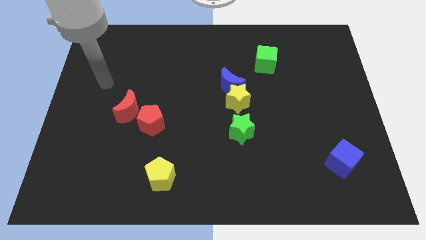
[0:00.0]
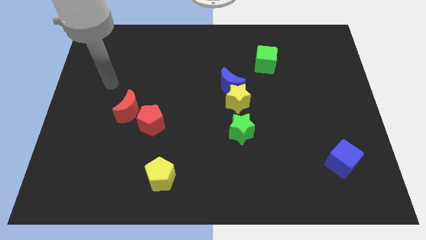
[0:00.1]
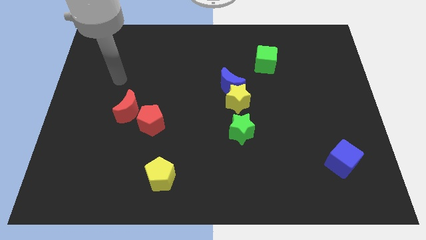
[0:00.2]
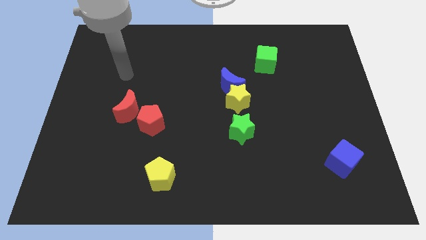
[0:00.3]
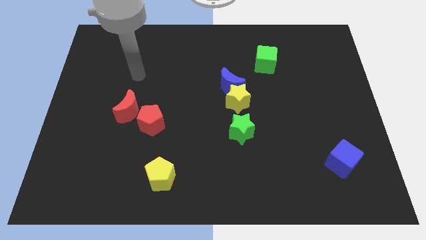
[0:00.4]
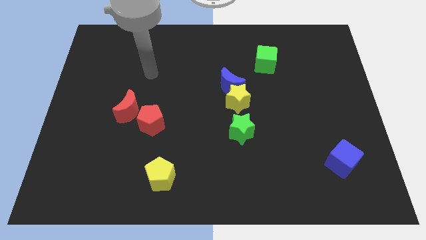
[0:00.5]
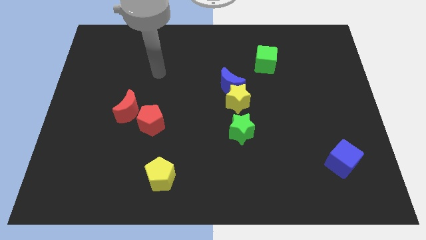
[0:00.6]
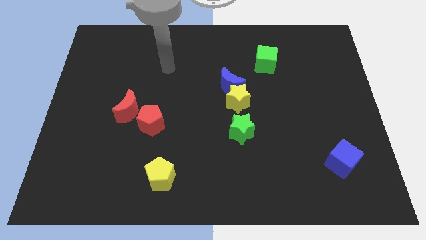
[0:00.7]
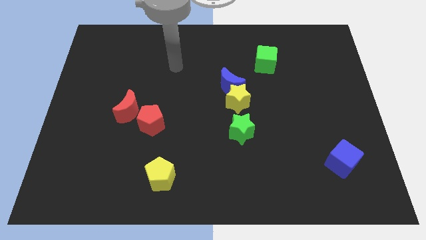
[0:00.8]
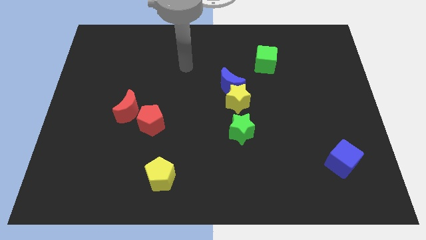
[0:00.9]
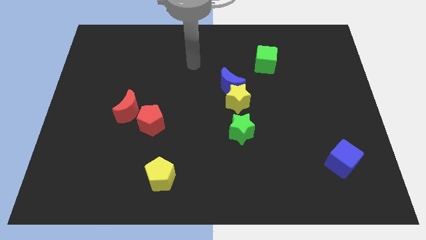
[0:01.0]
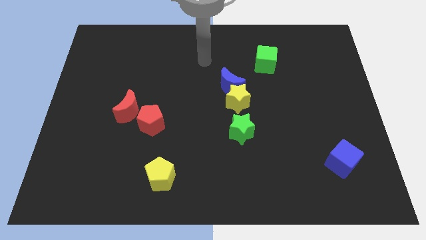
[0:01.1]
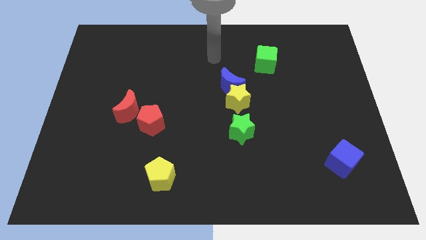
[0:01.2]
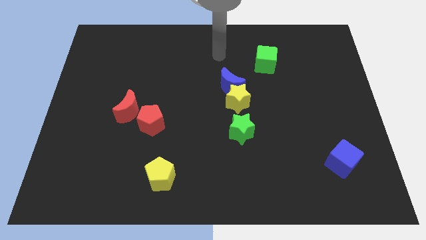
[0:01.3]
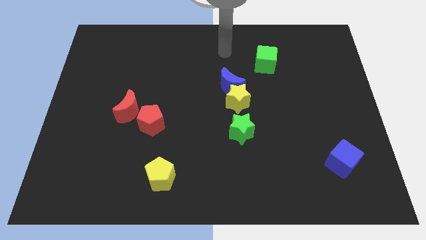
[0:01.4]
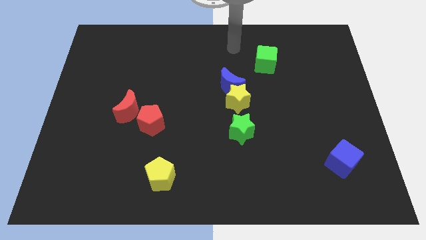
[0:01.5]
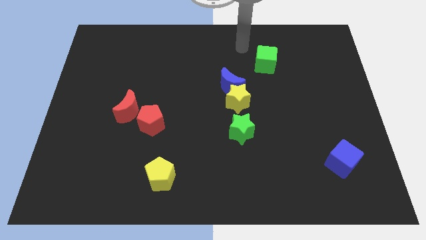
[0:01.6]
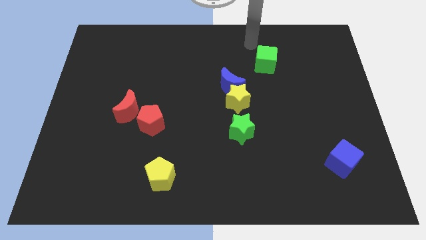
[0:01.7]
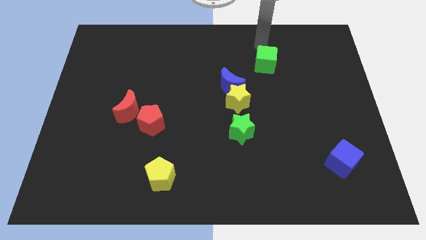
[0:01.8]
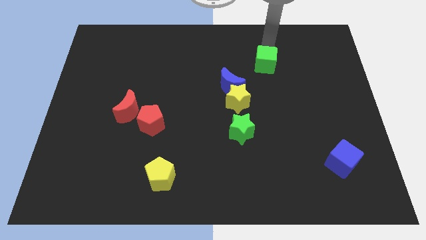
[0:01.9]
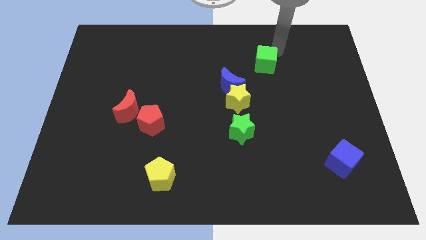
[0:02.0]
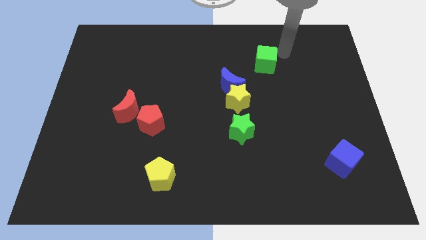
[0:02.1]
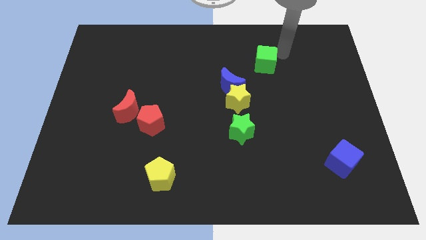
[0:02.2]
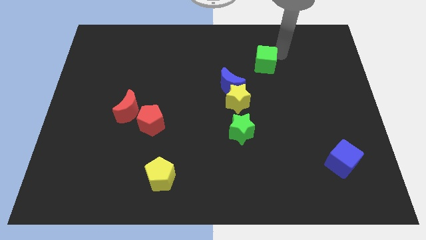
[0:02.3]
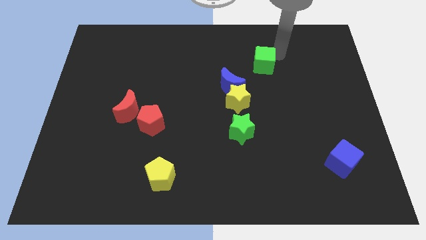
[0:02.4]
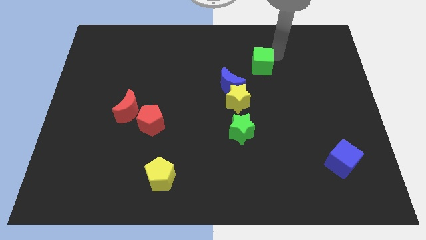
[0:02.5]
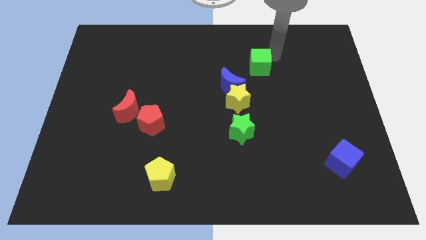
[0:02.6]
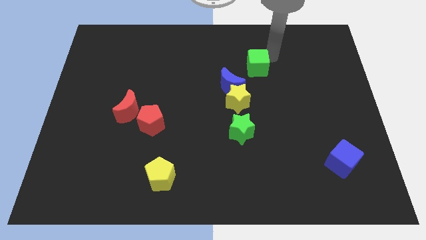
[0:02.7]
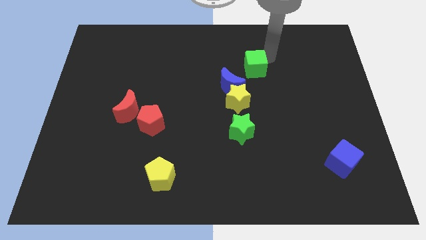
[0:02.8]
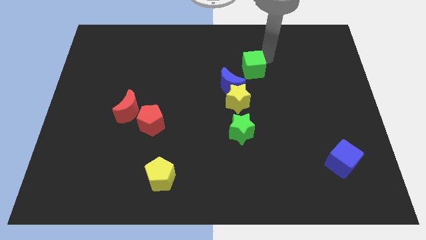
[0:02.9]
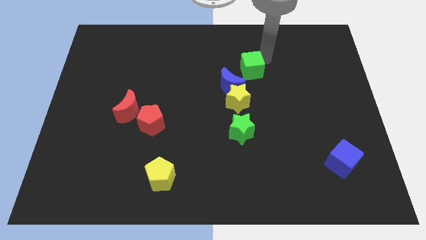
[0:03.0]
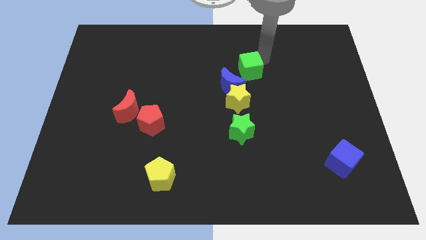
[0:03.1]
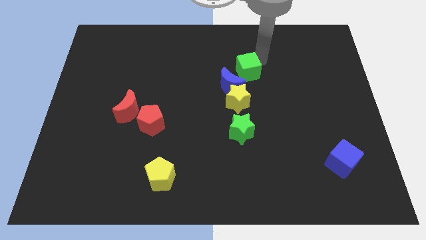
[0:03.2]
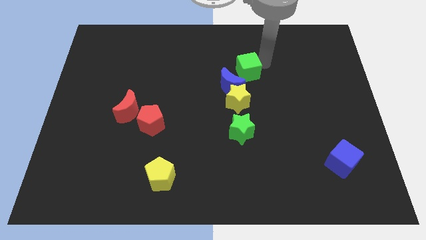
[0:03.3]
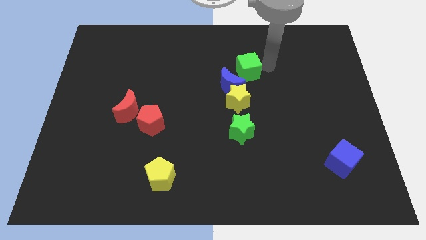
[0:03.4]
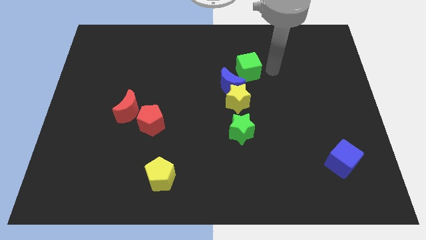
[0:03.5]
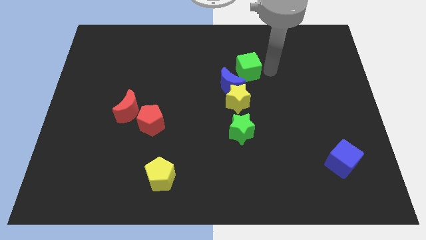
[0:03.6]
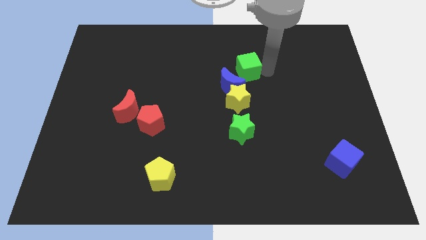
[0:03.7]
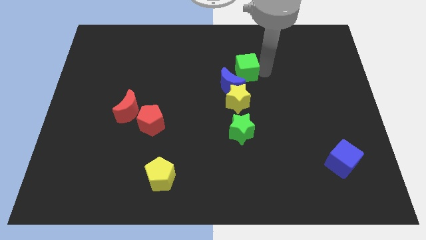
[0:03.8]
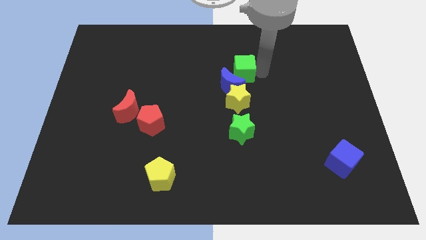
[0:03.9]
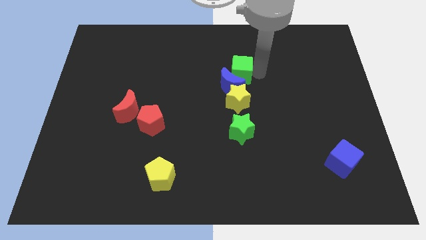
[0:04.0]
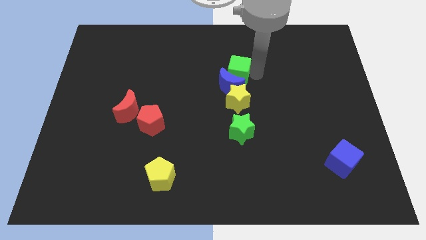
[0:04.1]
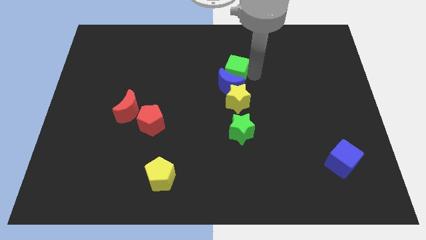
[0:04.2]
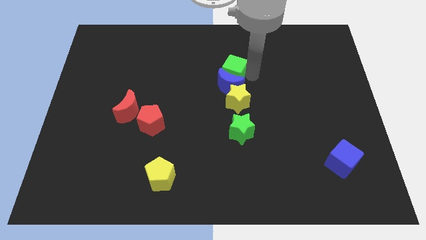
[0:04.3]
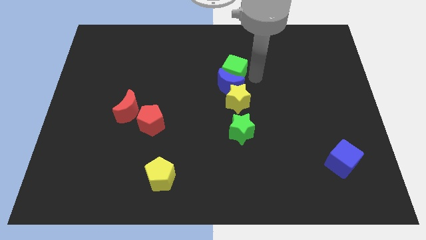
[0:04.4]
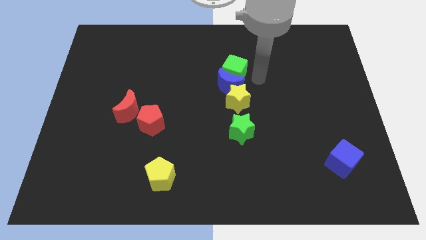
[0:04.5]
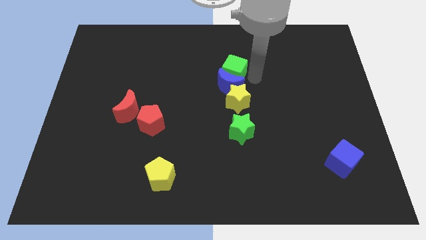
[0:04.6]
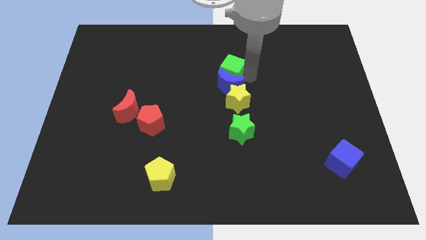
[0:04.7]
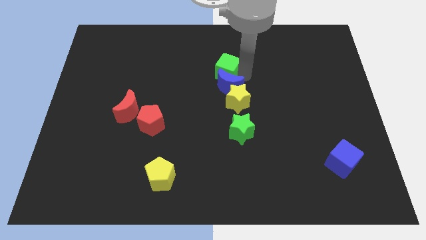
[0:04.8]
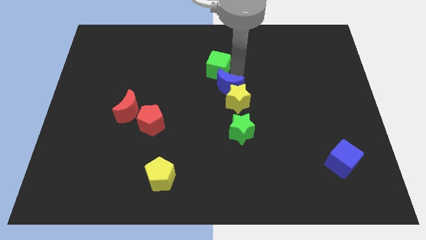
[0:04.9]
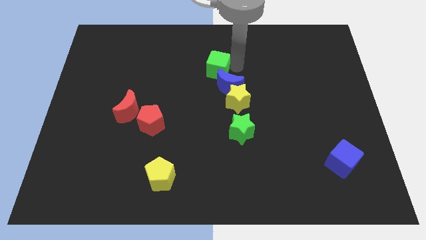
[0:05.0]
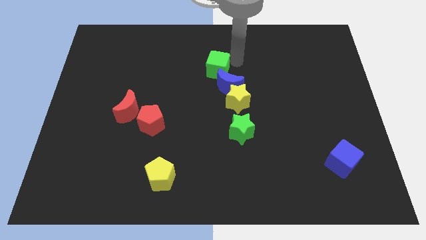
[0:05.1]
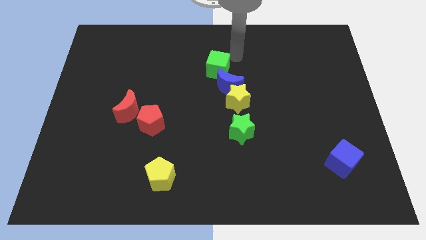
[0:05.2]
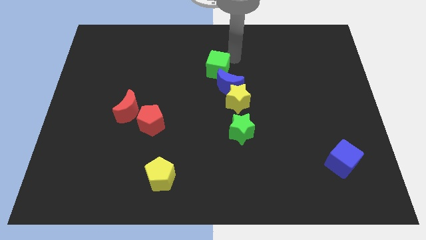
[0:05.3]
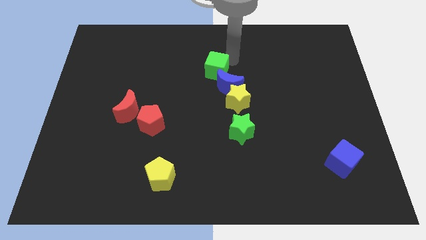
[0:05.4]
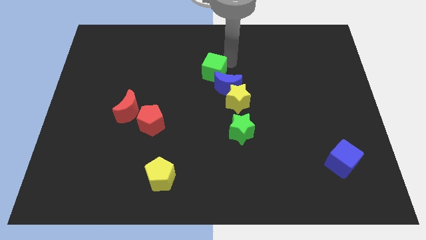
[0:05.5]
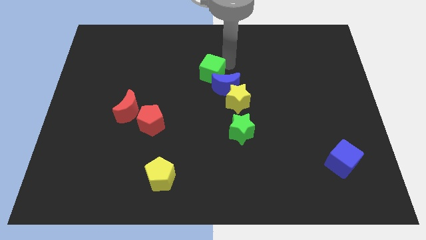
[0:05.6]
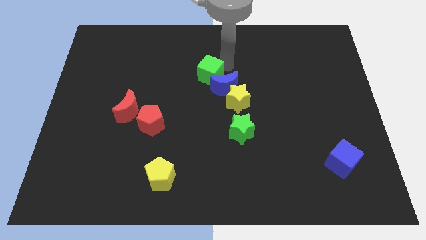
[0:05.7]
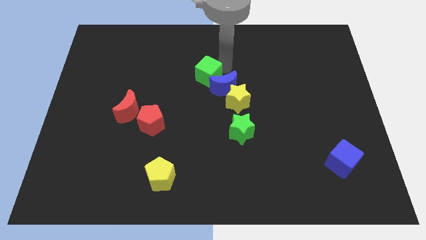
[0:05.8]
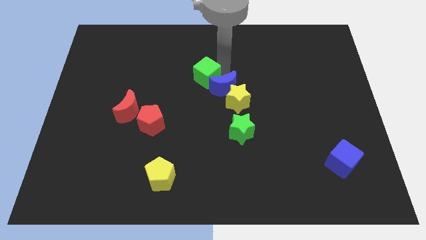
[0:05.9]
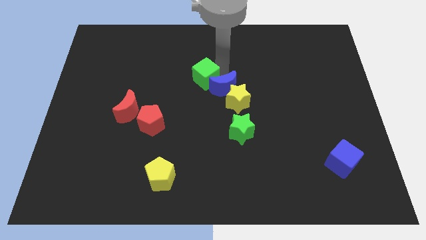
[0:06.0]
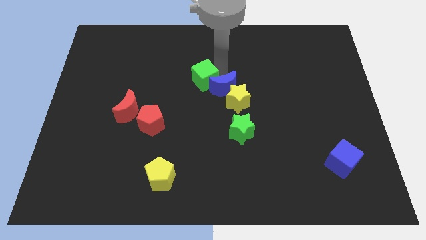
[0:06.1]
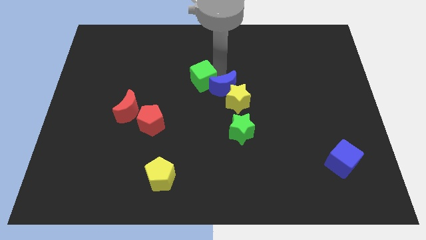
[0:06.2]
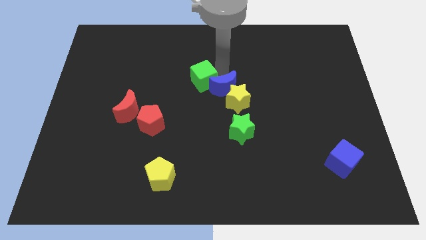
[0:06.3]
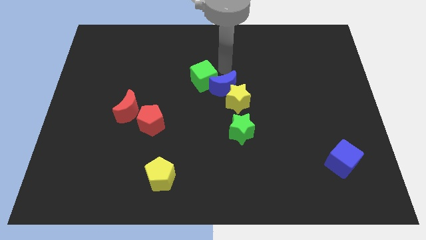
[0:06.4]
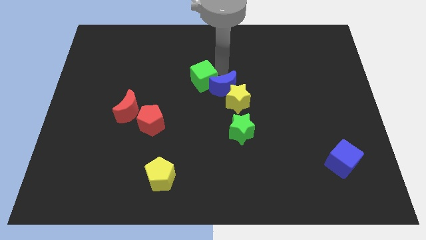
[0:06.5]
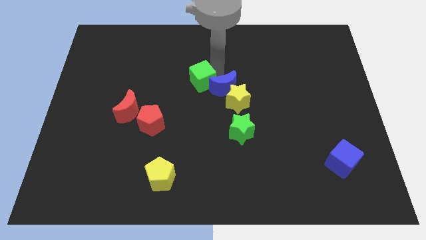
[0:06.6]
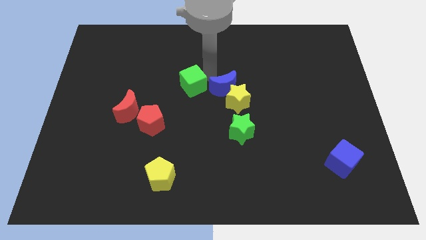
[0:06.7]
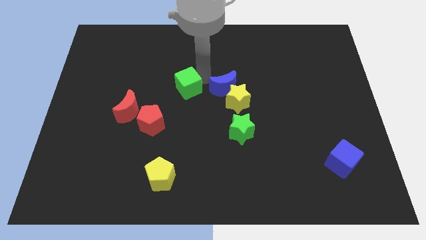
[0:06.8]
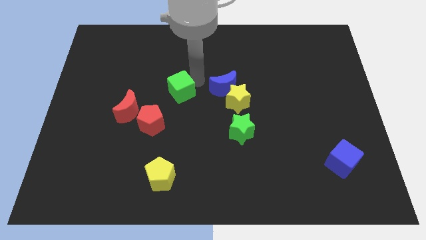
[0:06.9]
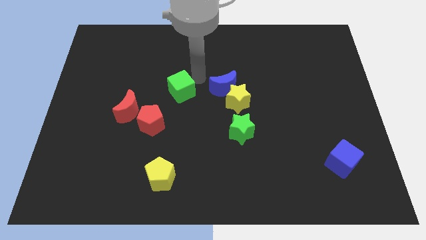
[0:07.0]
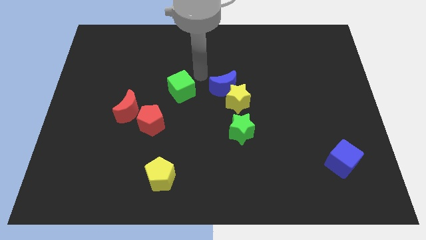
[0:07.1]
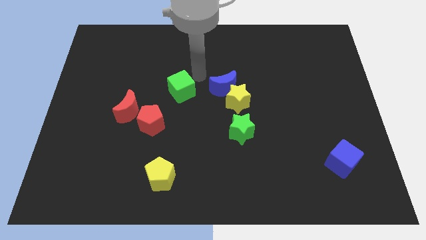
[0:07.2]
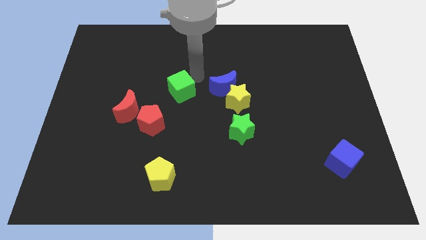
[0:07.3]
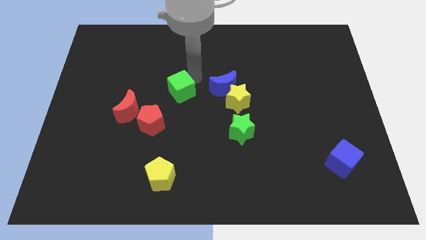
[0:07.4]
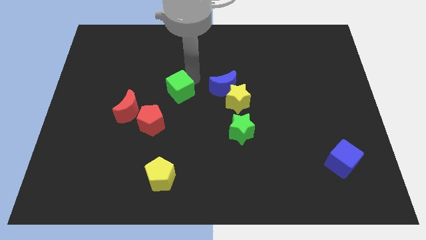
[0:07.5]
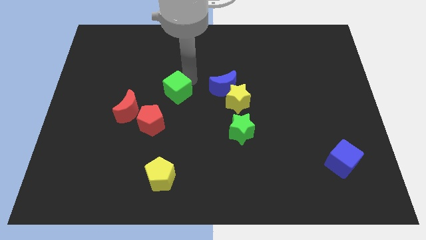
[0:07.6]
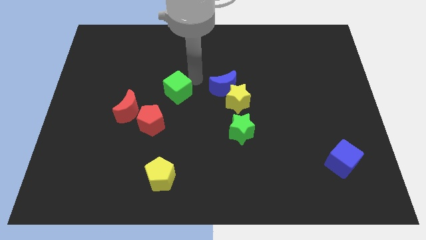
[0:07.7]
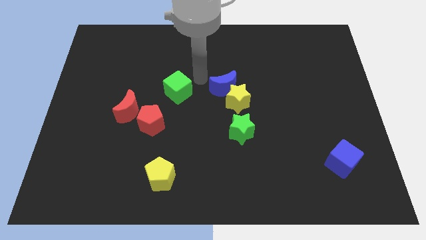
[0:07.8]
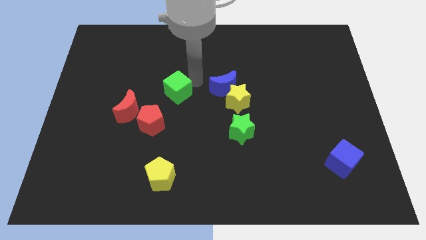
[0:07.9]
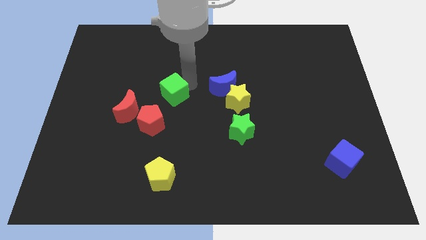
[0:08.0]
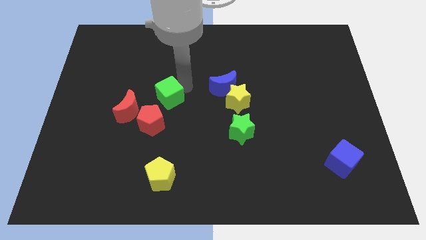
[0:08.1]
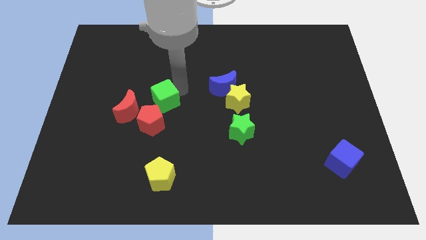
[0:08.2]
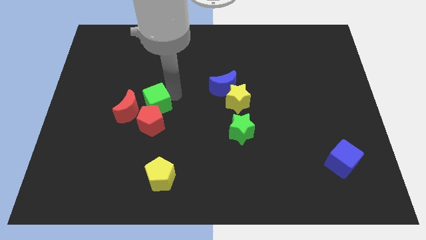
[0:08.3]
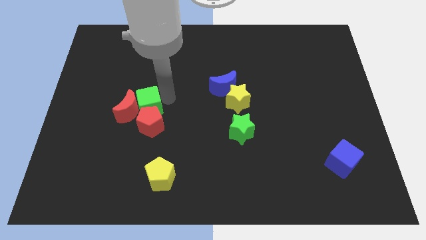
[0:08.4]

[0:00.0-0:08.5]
put the green cube next to the red moon
